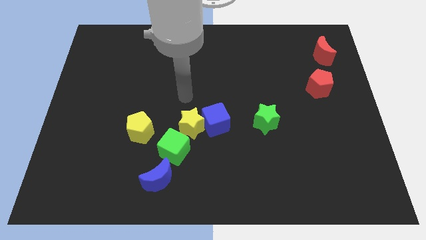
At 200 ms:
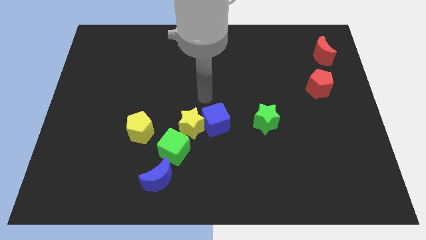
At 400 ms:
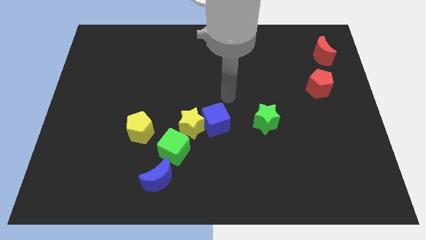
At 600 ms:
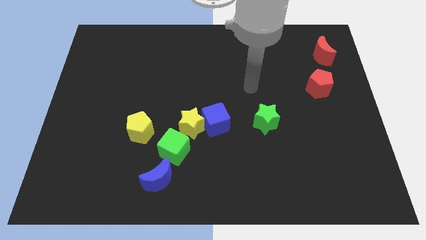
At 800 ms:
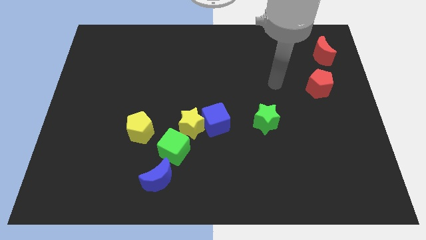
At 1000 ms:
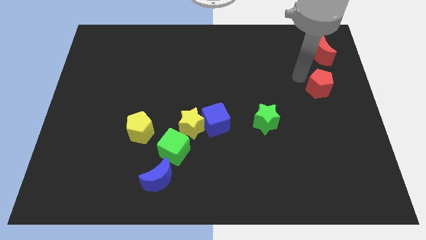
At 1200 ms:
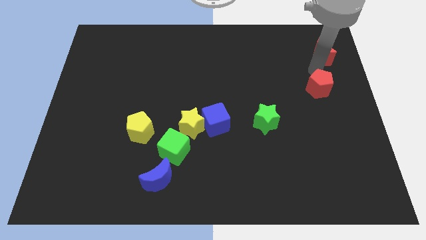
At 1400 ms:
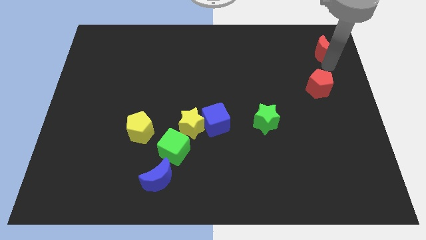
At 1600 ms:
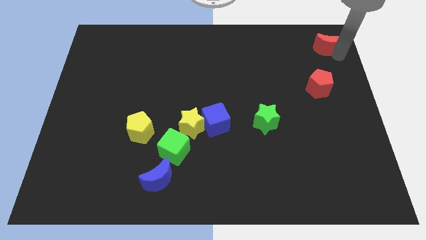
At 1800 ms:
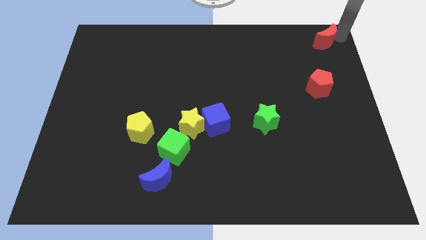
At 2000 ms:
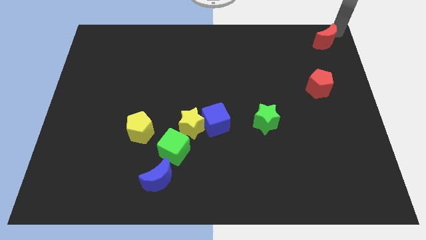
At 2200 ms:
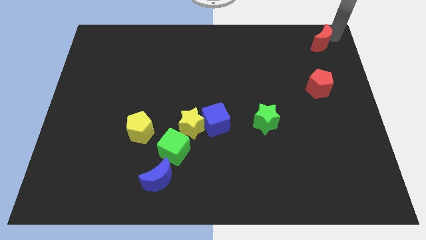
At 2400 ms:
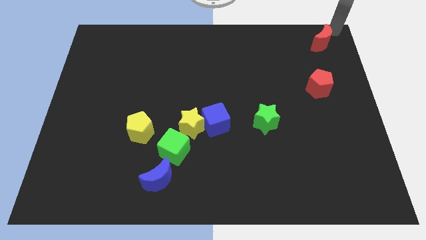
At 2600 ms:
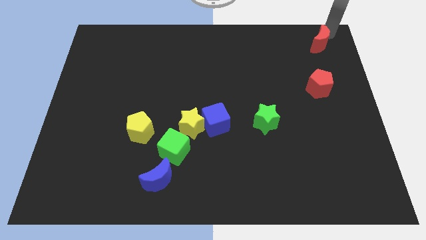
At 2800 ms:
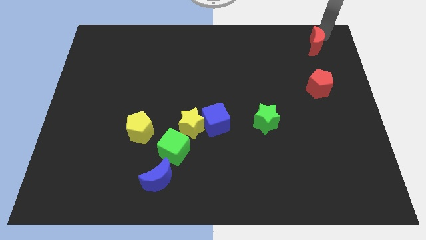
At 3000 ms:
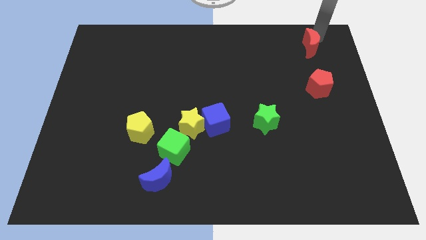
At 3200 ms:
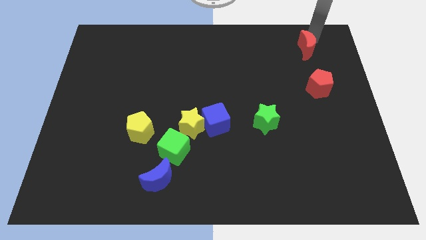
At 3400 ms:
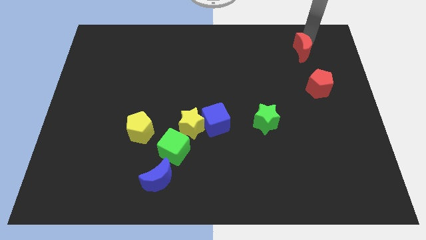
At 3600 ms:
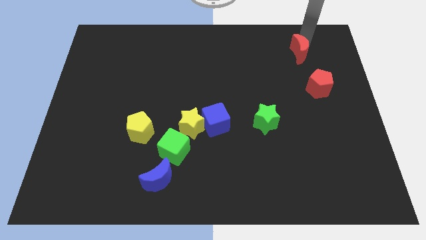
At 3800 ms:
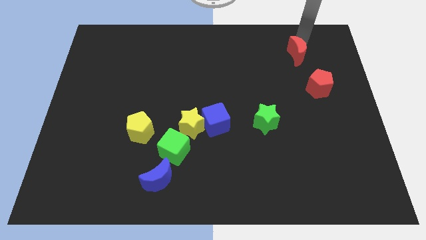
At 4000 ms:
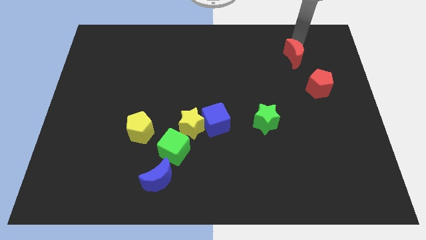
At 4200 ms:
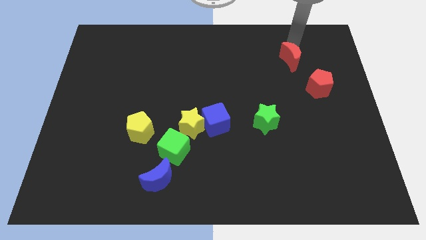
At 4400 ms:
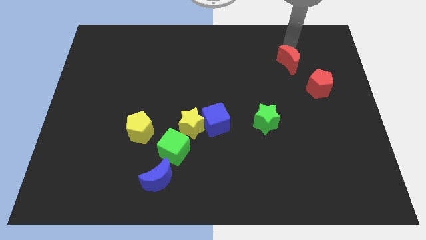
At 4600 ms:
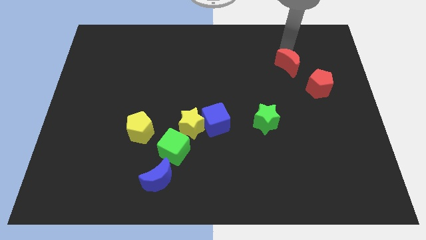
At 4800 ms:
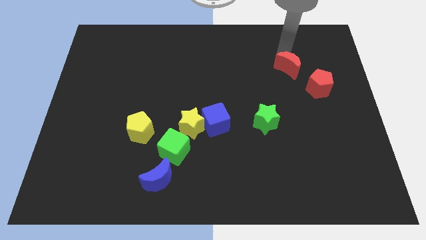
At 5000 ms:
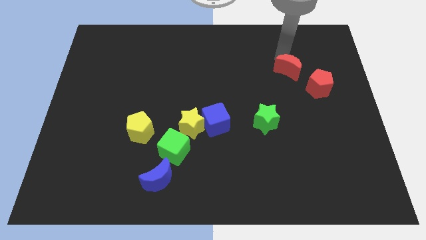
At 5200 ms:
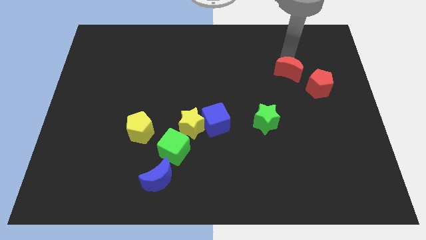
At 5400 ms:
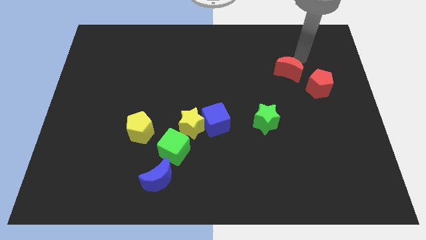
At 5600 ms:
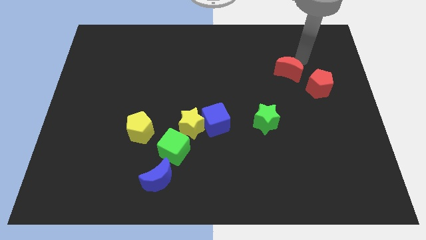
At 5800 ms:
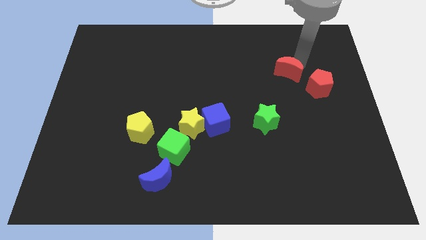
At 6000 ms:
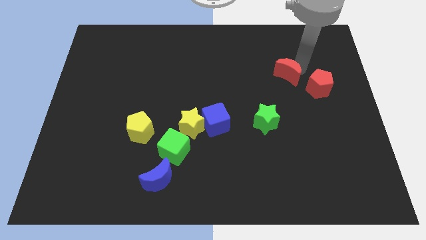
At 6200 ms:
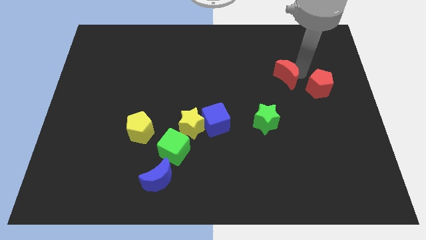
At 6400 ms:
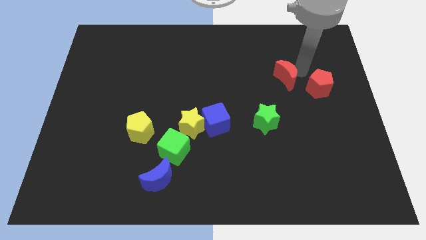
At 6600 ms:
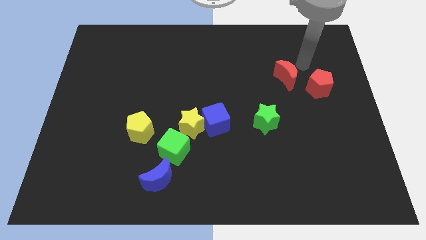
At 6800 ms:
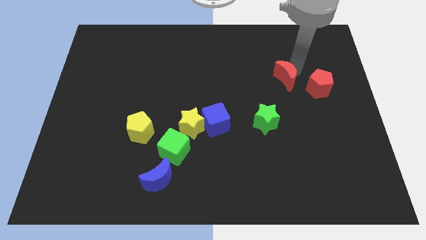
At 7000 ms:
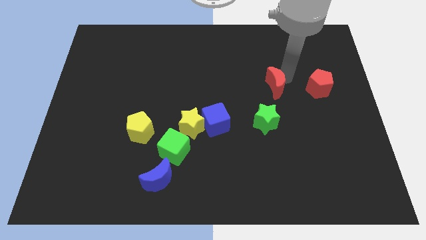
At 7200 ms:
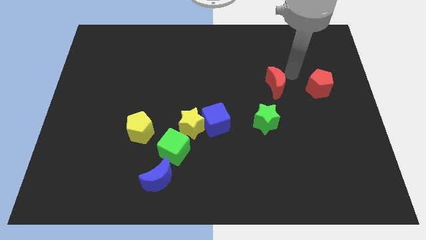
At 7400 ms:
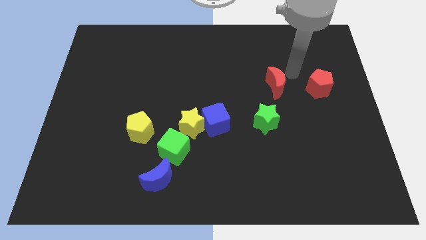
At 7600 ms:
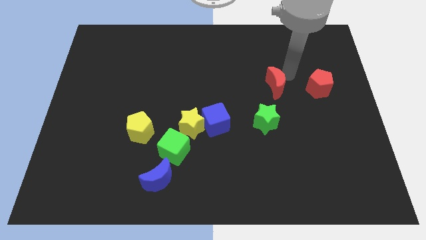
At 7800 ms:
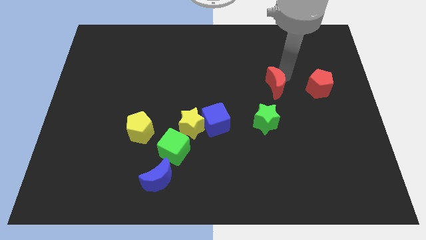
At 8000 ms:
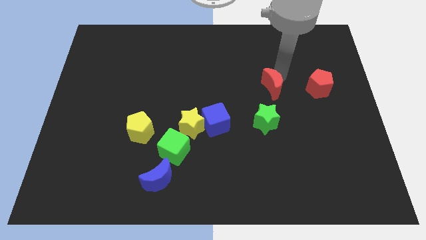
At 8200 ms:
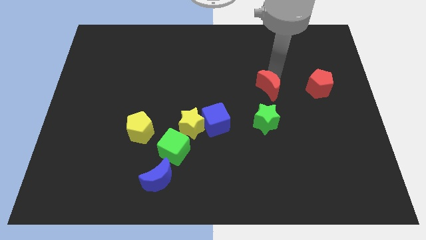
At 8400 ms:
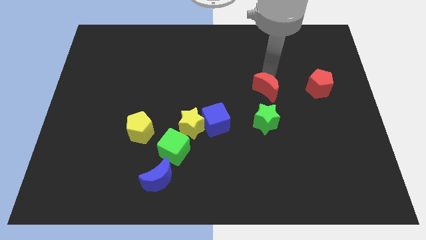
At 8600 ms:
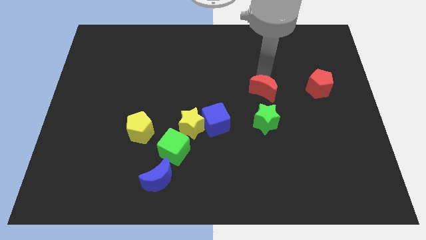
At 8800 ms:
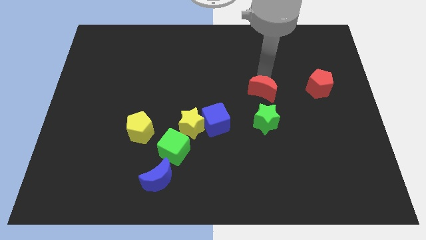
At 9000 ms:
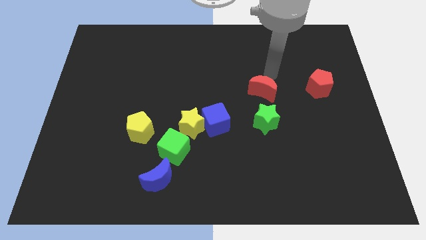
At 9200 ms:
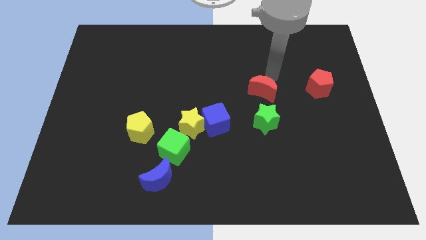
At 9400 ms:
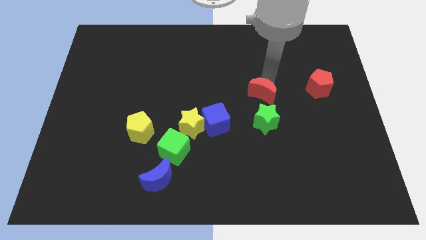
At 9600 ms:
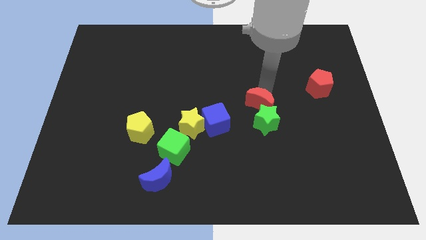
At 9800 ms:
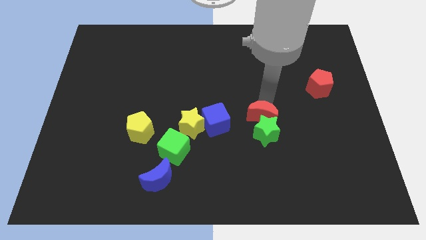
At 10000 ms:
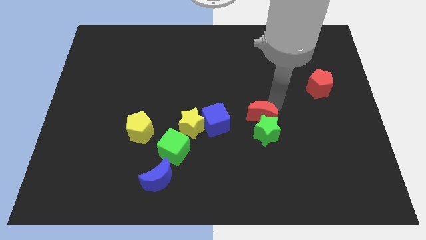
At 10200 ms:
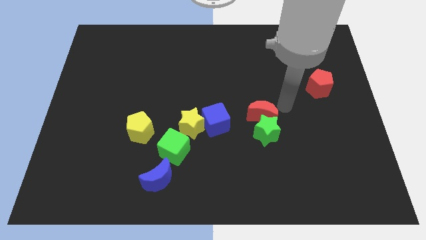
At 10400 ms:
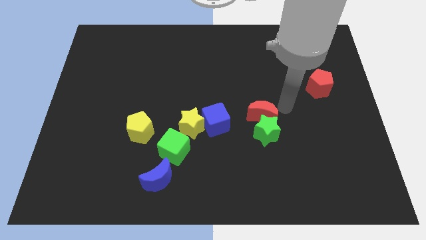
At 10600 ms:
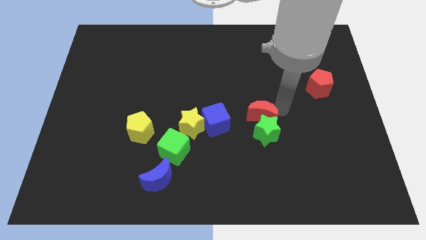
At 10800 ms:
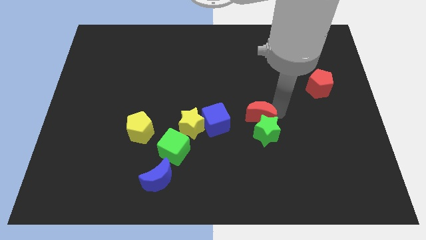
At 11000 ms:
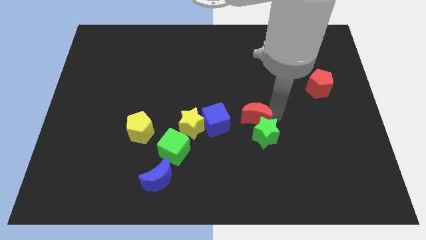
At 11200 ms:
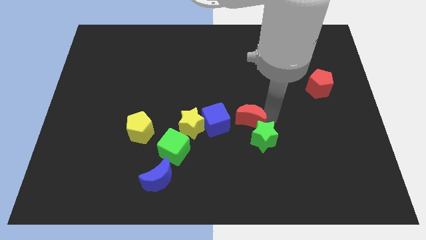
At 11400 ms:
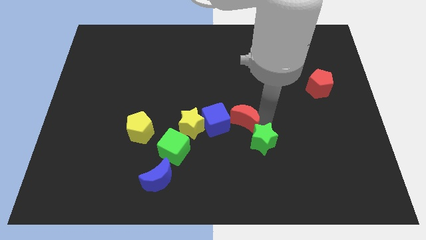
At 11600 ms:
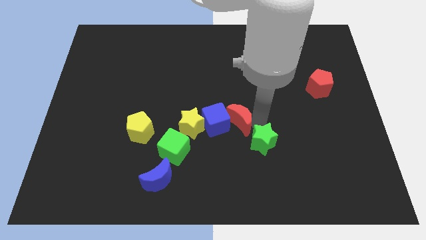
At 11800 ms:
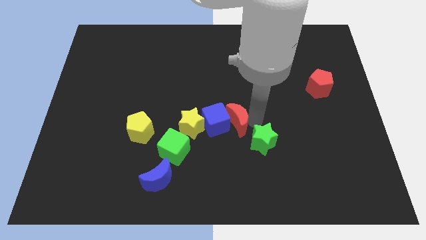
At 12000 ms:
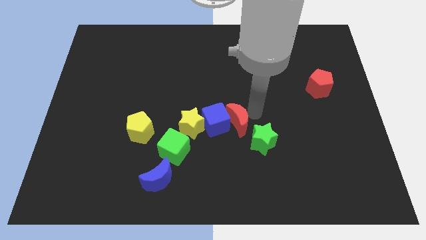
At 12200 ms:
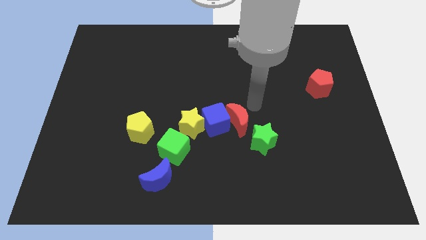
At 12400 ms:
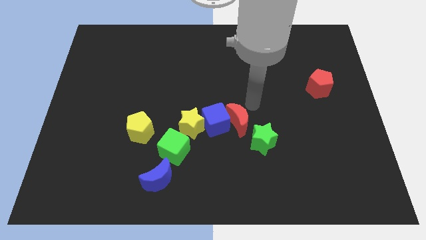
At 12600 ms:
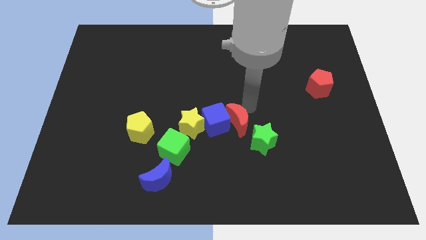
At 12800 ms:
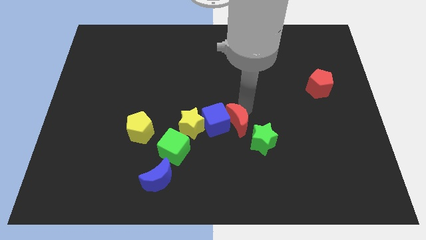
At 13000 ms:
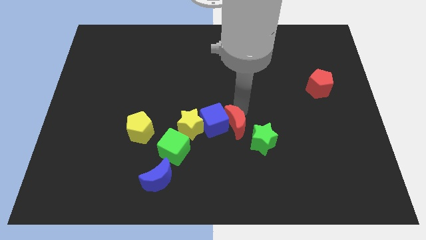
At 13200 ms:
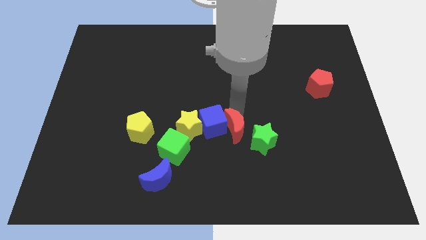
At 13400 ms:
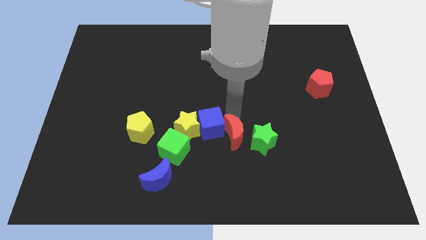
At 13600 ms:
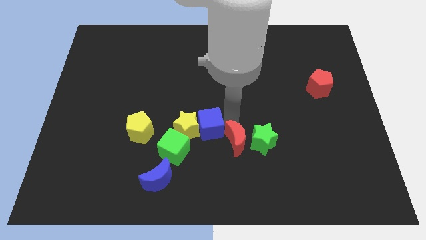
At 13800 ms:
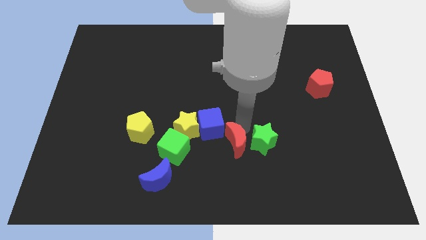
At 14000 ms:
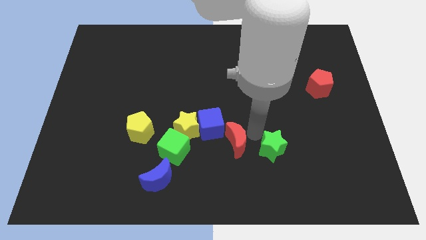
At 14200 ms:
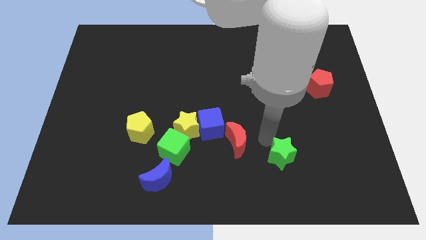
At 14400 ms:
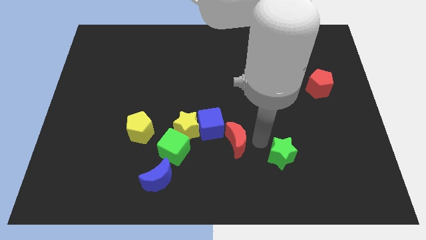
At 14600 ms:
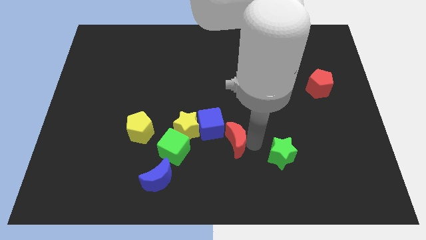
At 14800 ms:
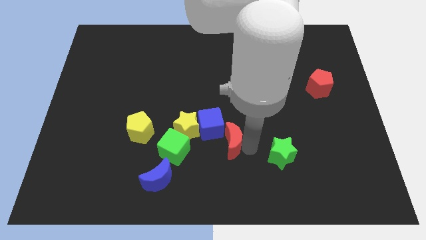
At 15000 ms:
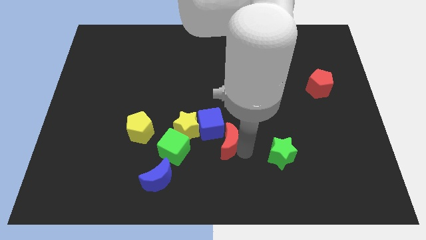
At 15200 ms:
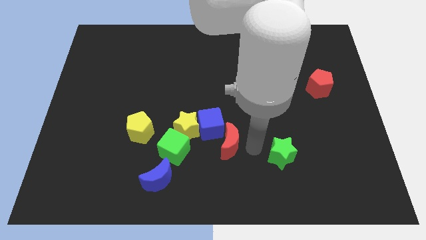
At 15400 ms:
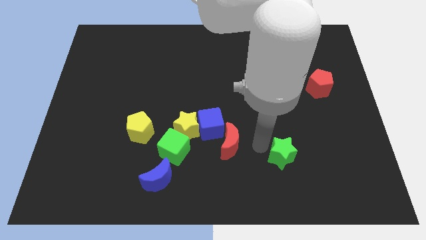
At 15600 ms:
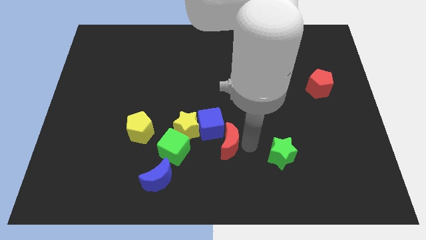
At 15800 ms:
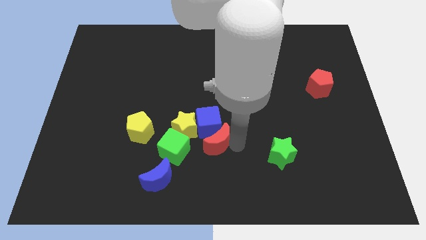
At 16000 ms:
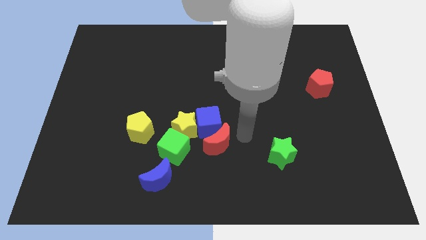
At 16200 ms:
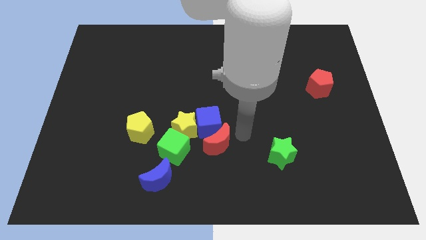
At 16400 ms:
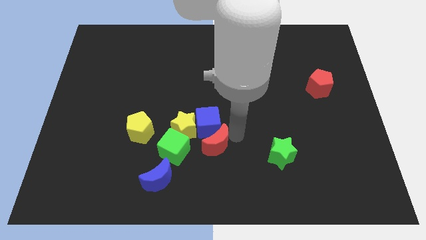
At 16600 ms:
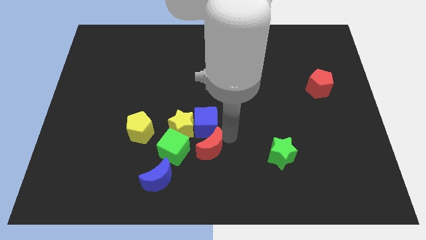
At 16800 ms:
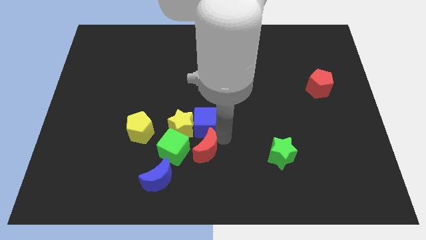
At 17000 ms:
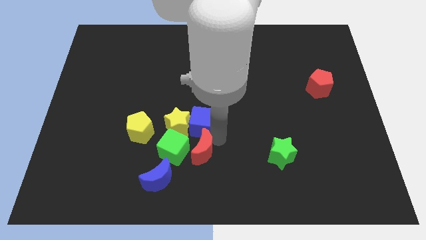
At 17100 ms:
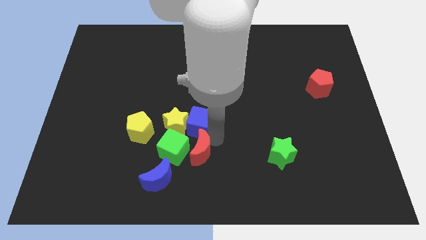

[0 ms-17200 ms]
push the red moon to the green cube
